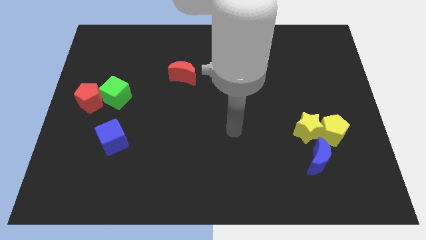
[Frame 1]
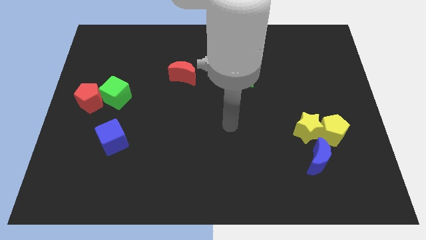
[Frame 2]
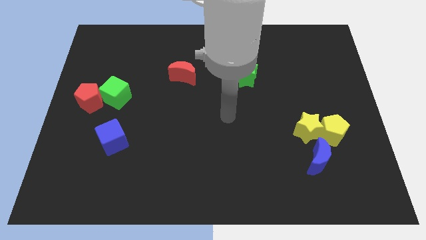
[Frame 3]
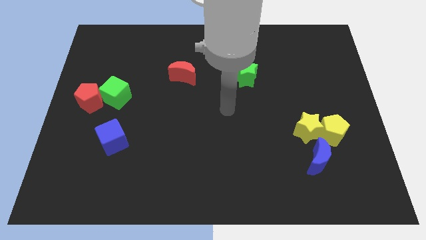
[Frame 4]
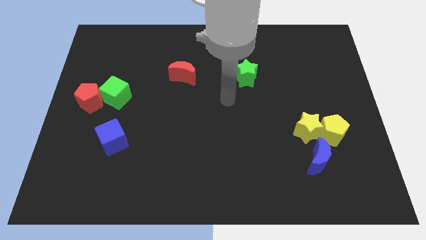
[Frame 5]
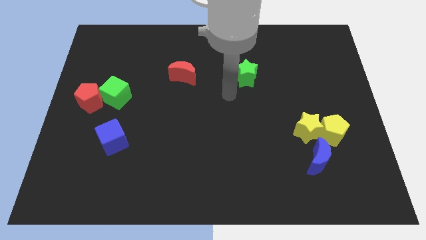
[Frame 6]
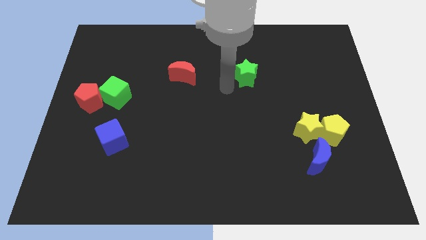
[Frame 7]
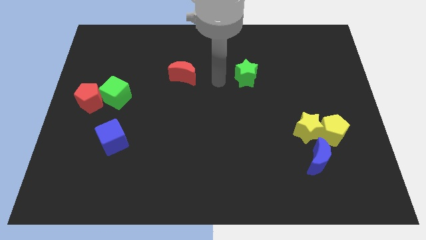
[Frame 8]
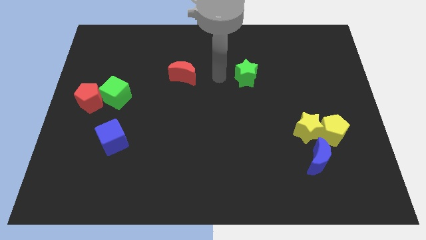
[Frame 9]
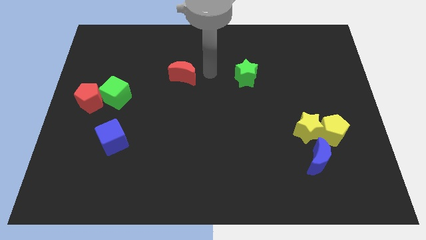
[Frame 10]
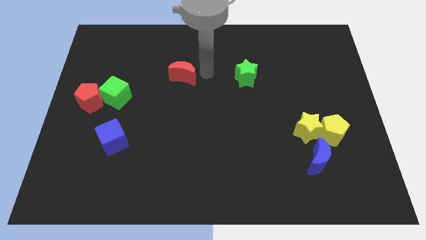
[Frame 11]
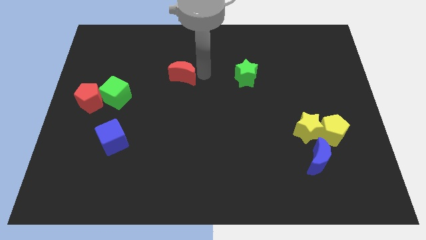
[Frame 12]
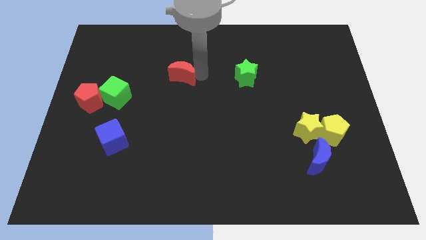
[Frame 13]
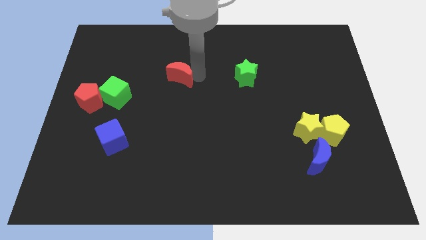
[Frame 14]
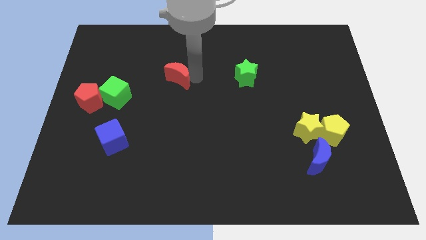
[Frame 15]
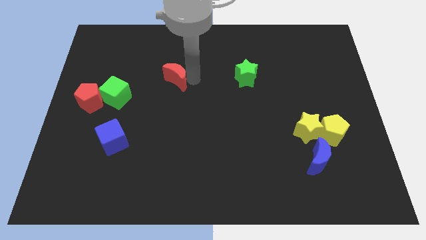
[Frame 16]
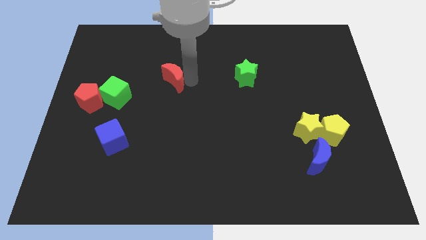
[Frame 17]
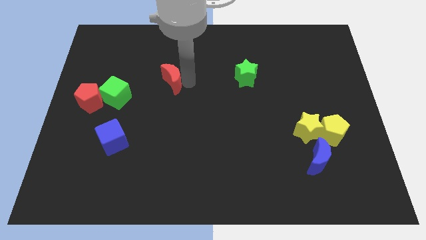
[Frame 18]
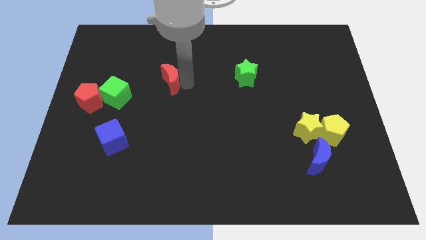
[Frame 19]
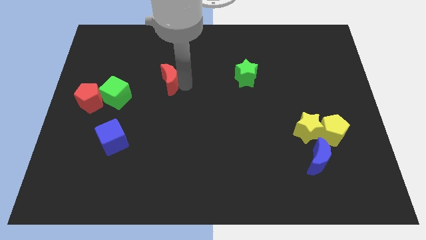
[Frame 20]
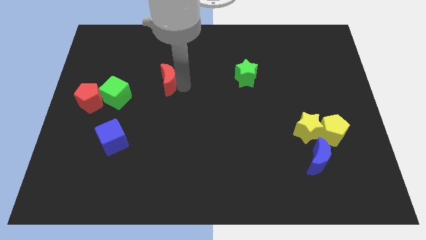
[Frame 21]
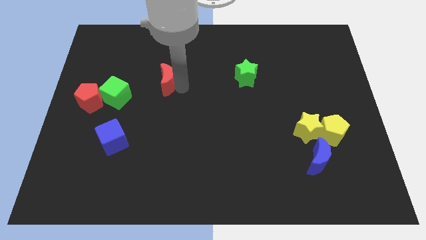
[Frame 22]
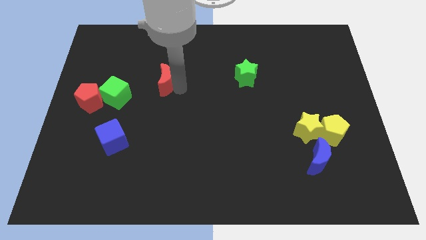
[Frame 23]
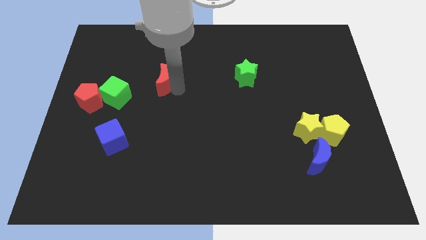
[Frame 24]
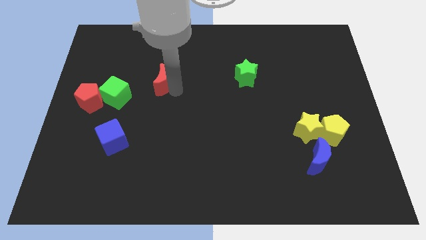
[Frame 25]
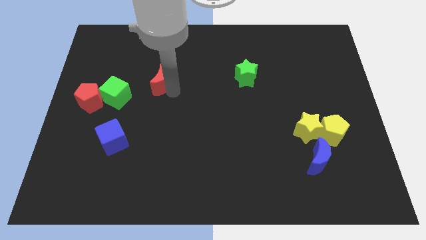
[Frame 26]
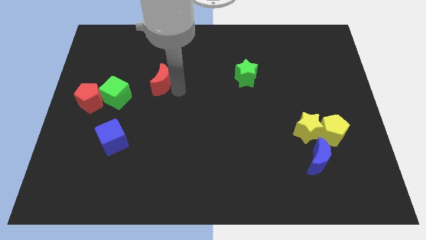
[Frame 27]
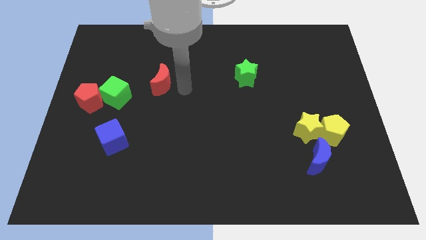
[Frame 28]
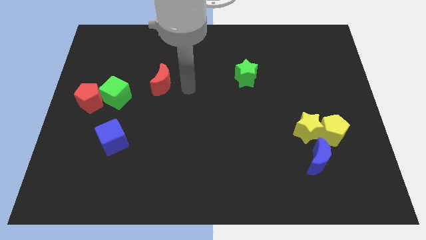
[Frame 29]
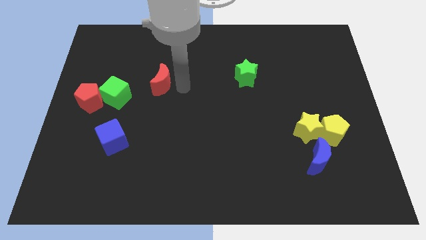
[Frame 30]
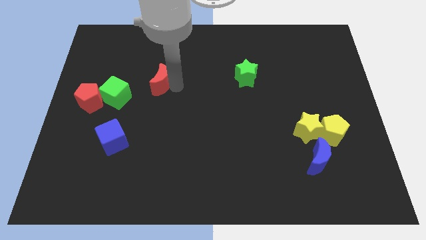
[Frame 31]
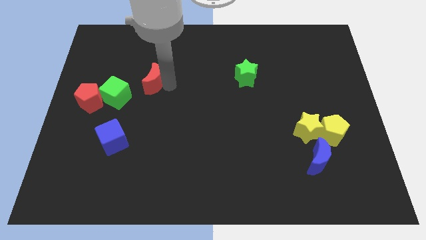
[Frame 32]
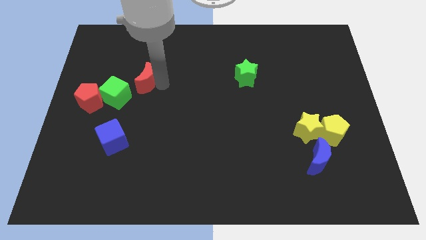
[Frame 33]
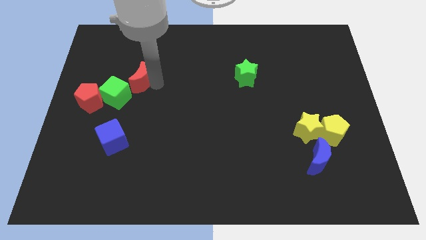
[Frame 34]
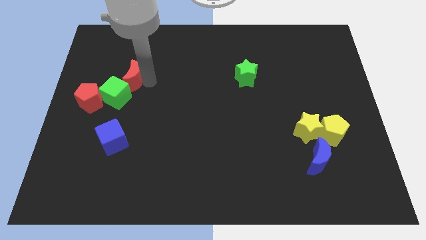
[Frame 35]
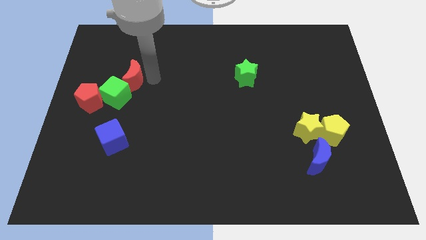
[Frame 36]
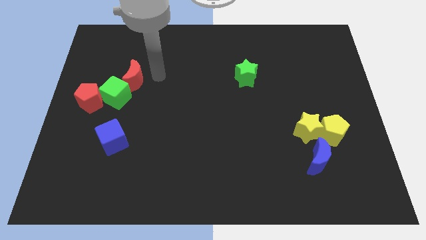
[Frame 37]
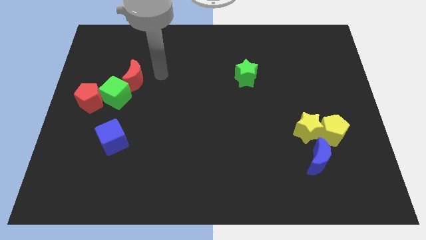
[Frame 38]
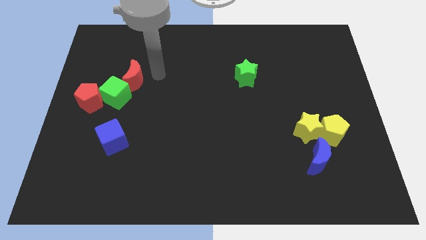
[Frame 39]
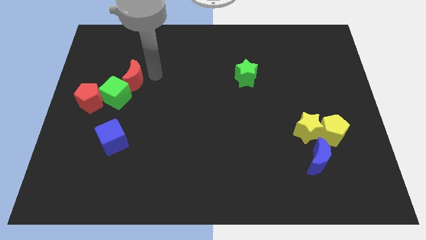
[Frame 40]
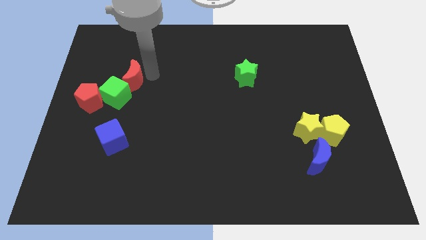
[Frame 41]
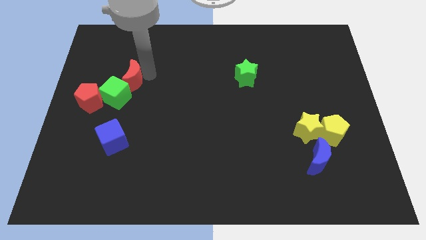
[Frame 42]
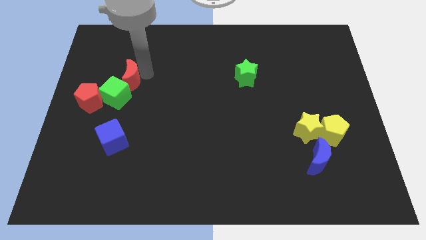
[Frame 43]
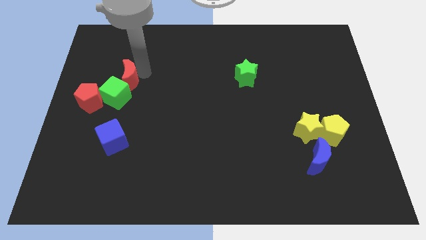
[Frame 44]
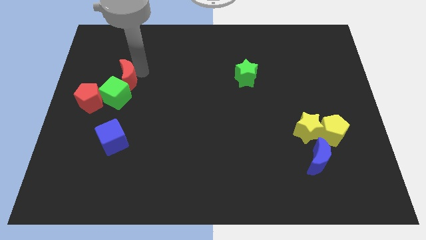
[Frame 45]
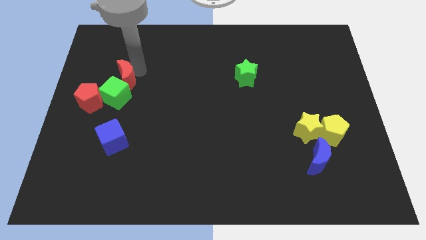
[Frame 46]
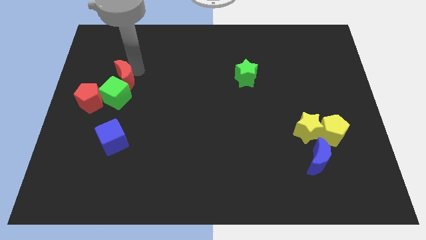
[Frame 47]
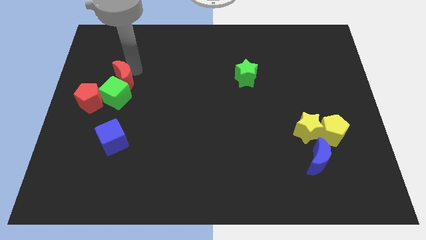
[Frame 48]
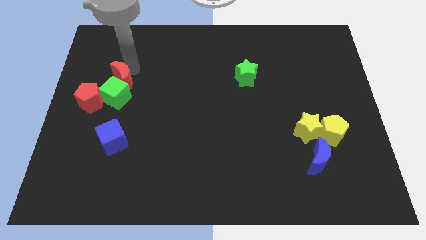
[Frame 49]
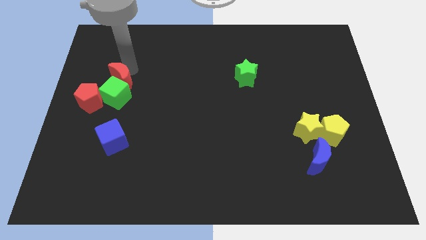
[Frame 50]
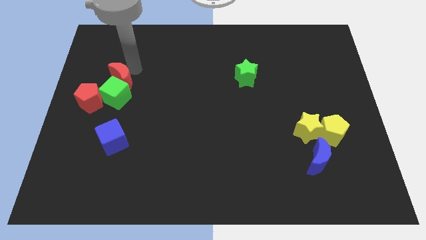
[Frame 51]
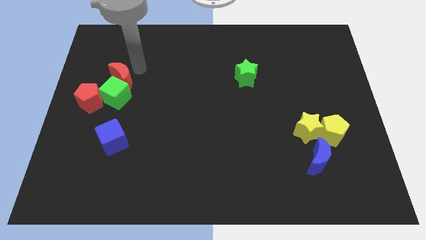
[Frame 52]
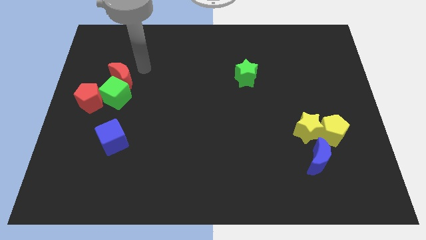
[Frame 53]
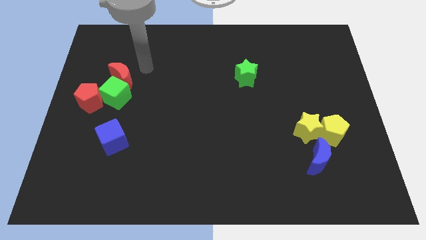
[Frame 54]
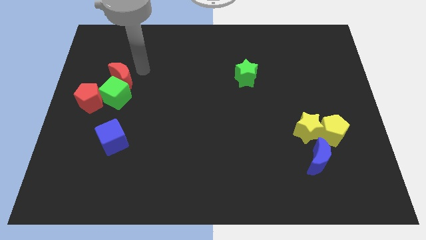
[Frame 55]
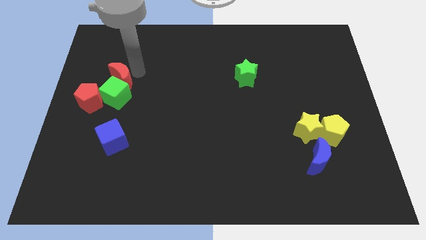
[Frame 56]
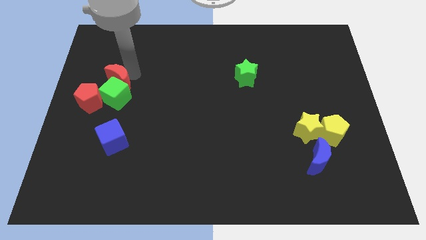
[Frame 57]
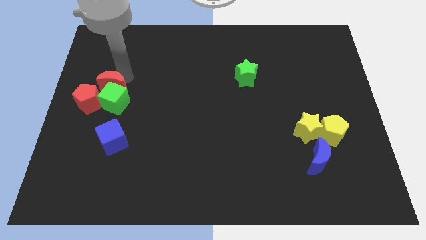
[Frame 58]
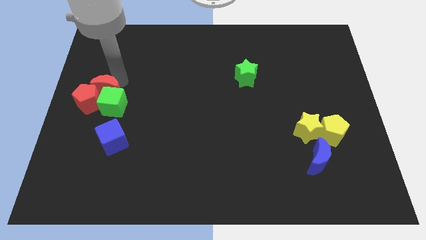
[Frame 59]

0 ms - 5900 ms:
push the red moon towards the red pentagon

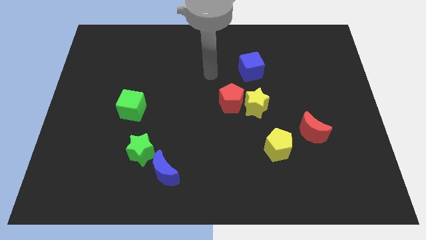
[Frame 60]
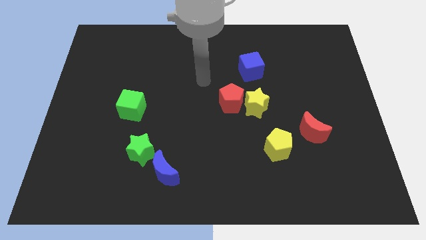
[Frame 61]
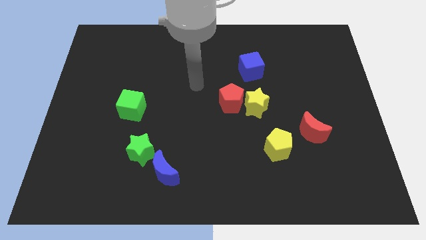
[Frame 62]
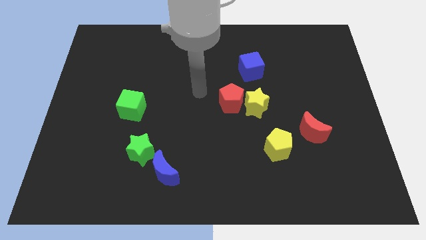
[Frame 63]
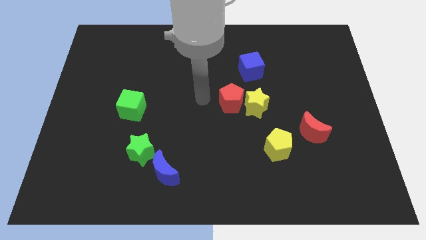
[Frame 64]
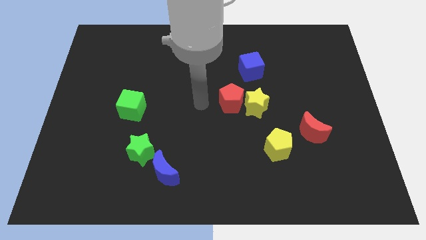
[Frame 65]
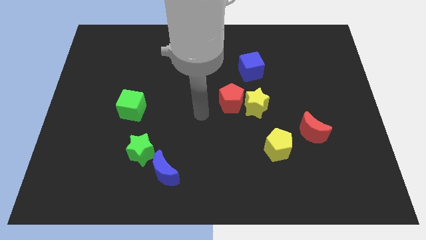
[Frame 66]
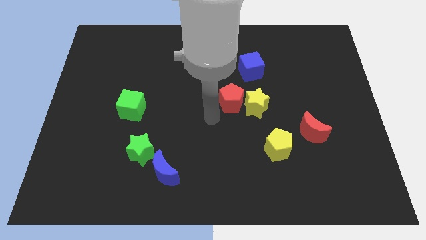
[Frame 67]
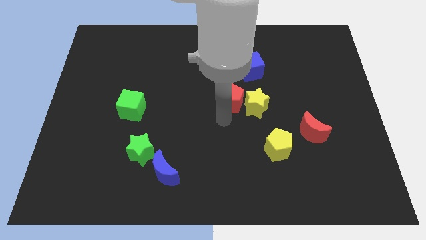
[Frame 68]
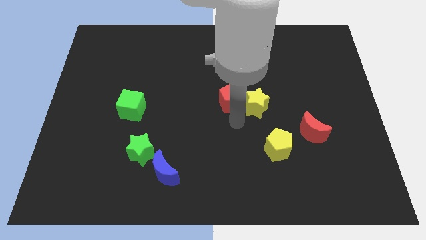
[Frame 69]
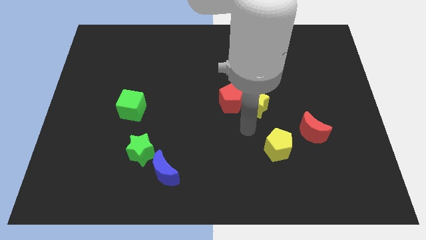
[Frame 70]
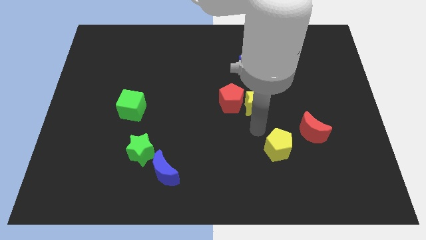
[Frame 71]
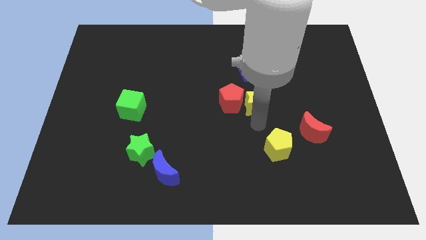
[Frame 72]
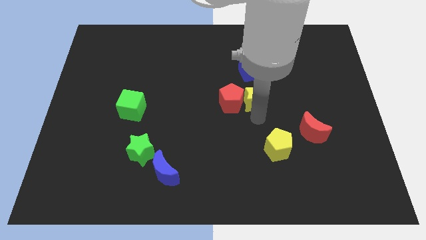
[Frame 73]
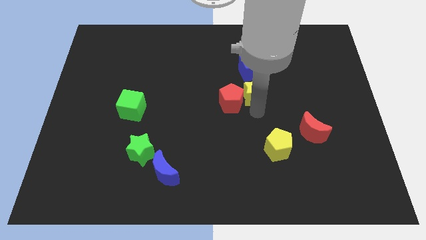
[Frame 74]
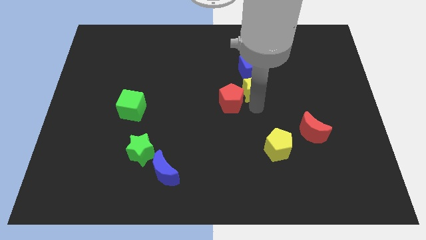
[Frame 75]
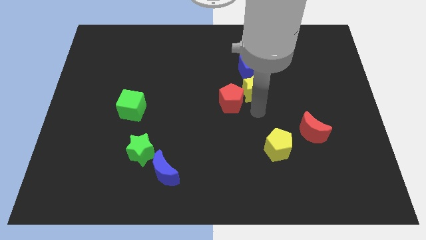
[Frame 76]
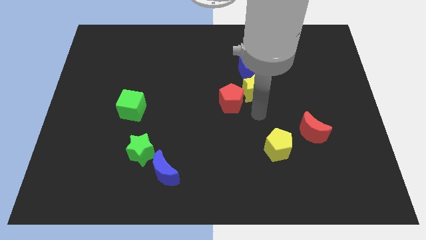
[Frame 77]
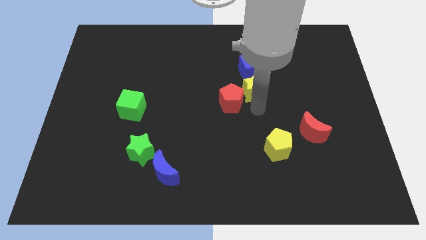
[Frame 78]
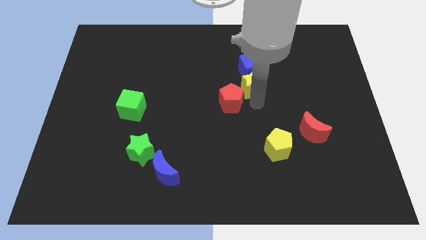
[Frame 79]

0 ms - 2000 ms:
put the yellow star to the blue cube
